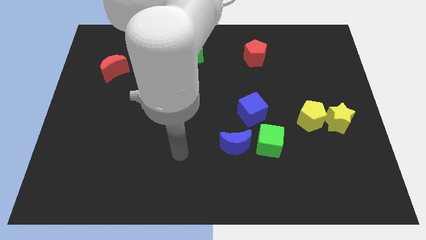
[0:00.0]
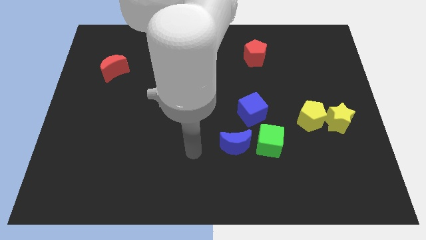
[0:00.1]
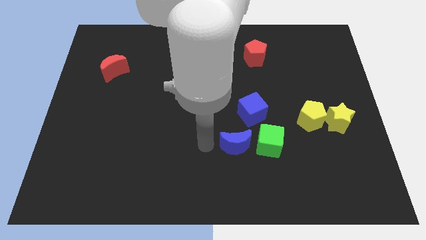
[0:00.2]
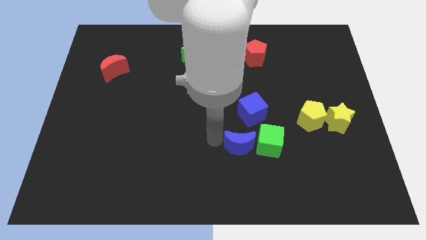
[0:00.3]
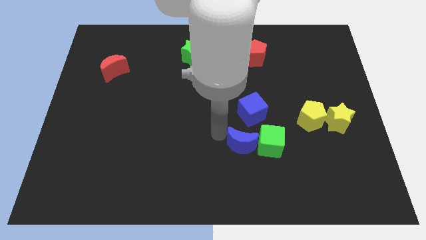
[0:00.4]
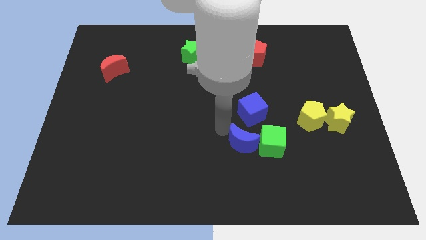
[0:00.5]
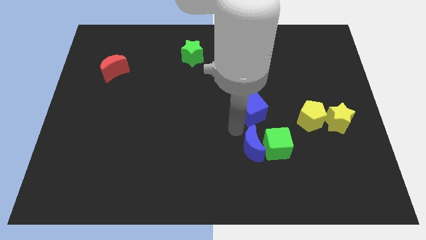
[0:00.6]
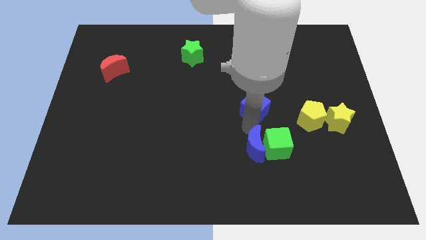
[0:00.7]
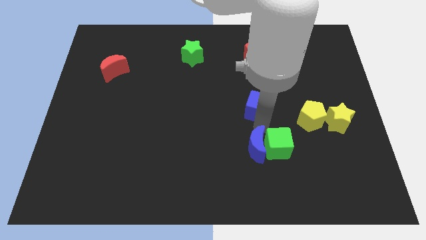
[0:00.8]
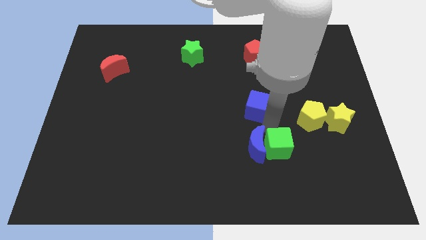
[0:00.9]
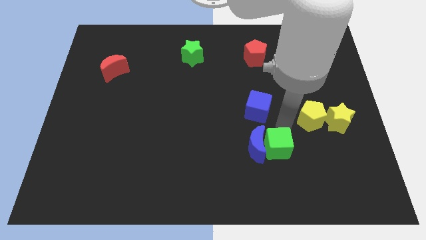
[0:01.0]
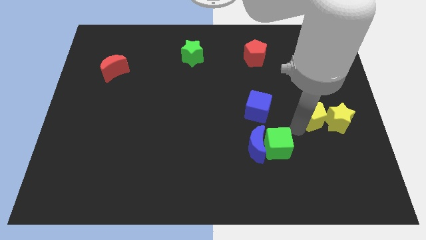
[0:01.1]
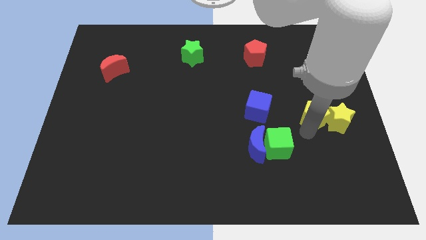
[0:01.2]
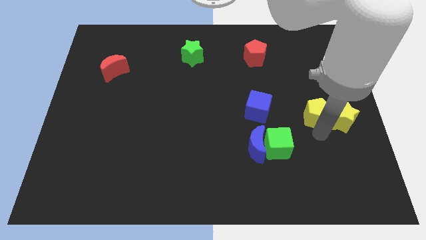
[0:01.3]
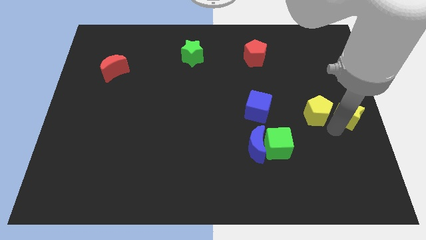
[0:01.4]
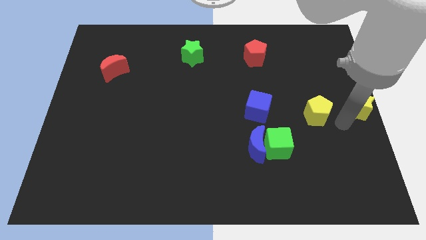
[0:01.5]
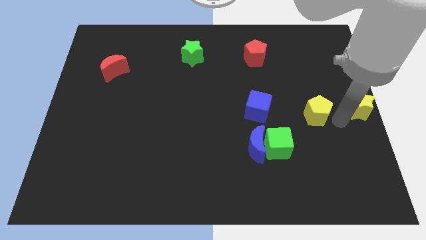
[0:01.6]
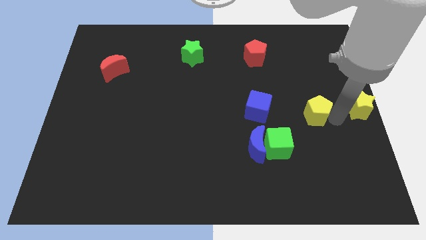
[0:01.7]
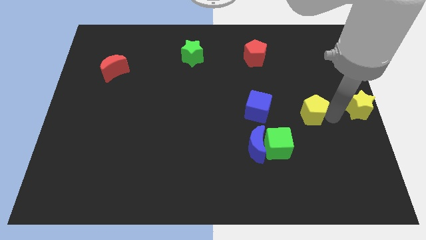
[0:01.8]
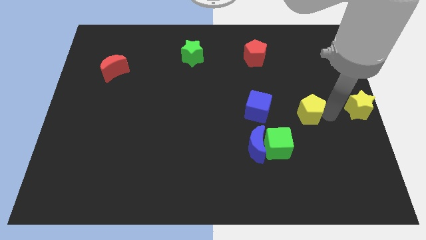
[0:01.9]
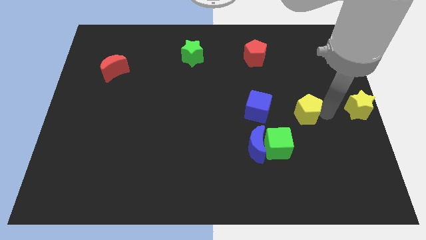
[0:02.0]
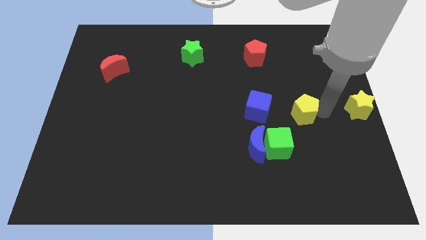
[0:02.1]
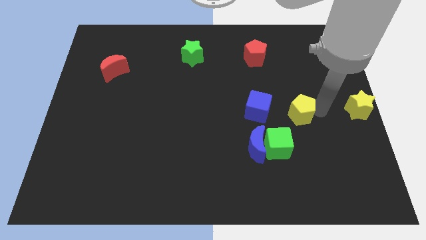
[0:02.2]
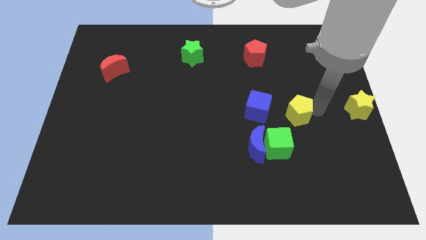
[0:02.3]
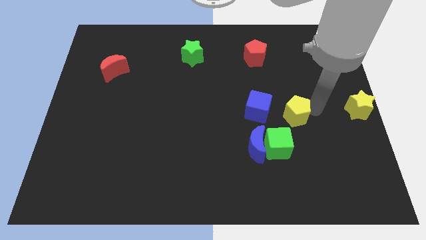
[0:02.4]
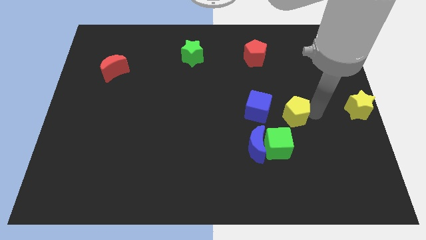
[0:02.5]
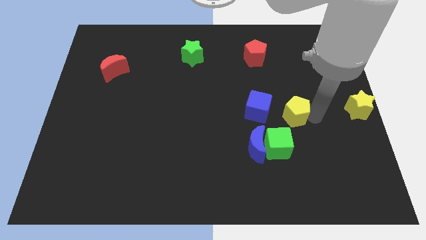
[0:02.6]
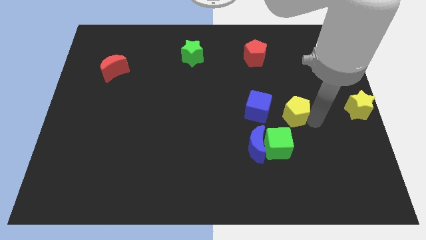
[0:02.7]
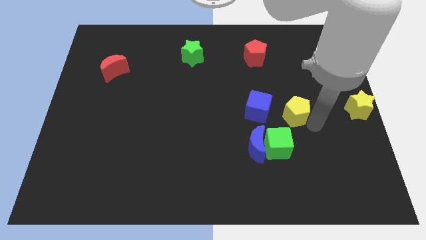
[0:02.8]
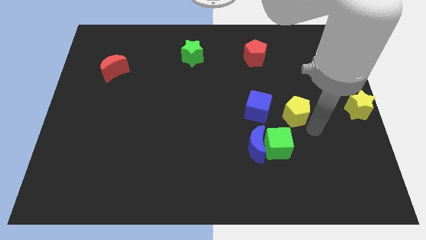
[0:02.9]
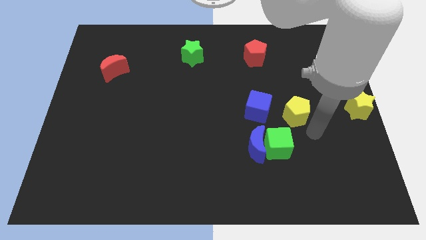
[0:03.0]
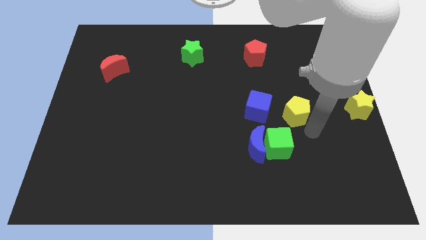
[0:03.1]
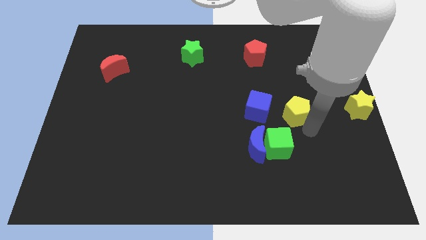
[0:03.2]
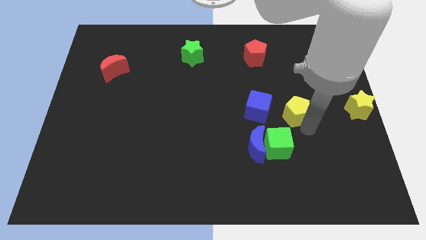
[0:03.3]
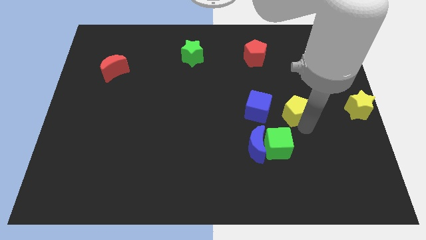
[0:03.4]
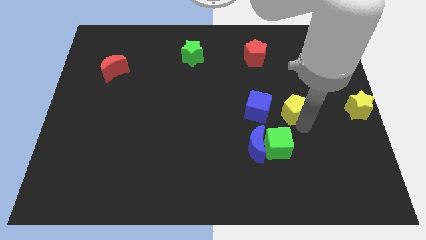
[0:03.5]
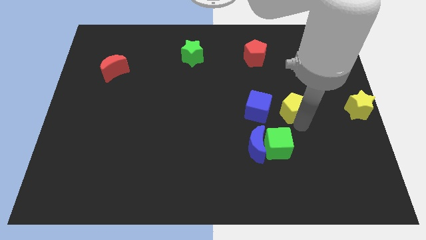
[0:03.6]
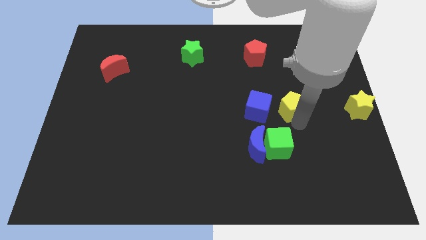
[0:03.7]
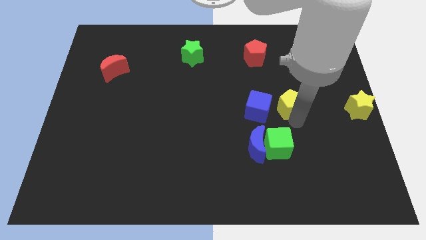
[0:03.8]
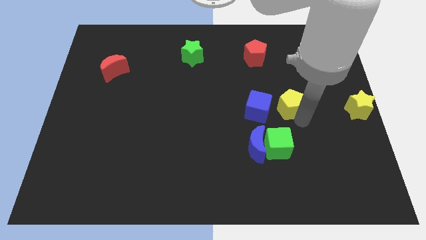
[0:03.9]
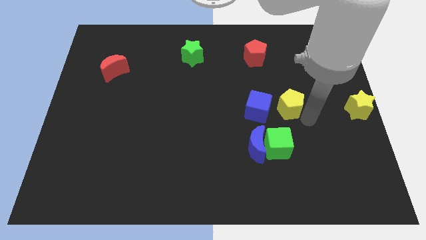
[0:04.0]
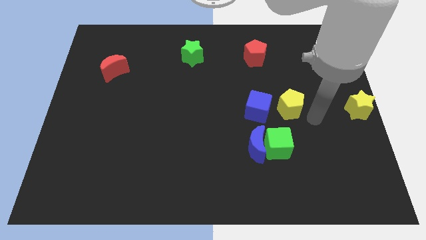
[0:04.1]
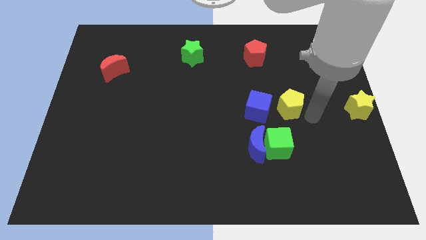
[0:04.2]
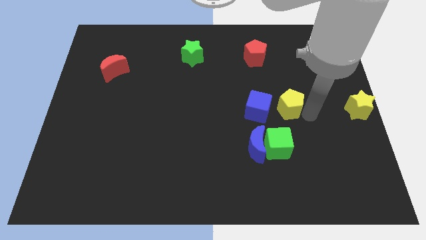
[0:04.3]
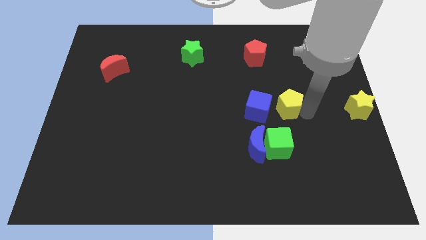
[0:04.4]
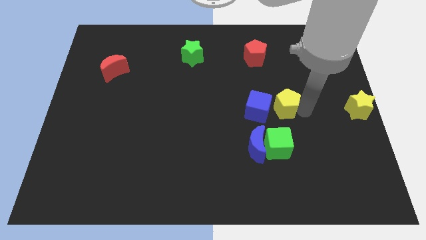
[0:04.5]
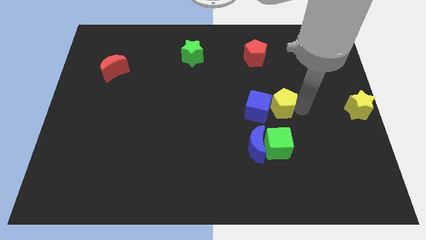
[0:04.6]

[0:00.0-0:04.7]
move the yellow pentagon diagonally upwards and left a little bit

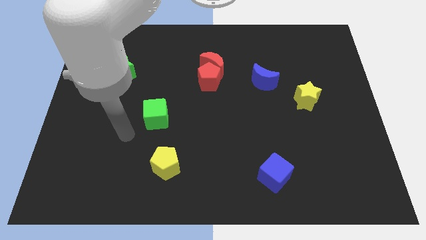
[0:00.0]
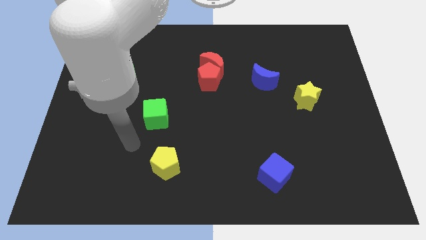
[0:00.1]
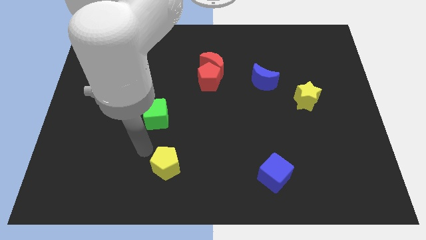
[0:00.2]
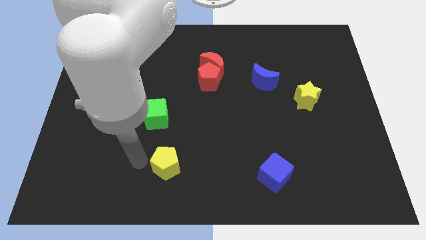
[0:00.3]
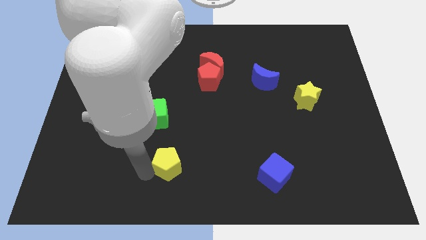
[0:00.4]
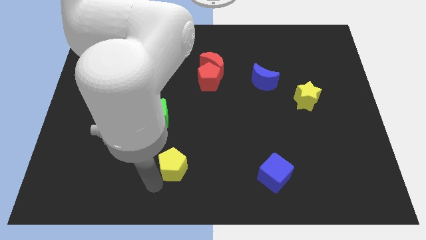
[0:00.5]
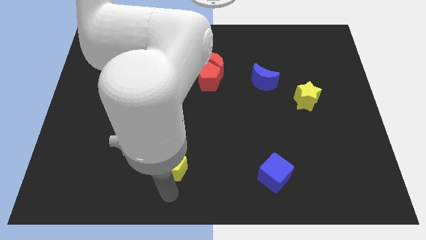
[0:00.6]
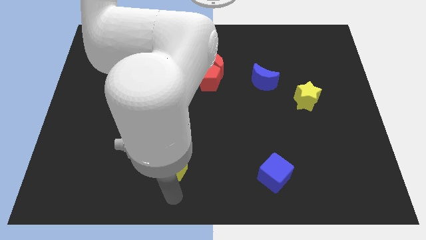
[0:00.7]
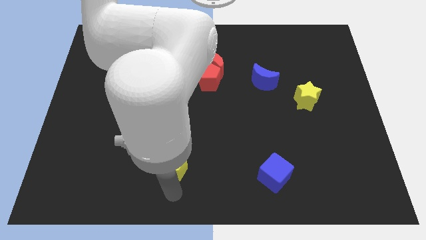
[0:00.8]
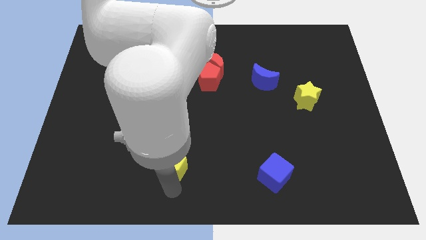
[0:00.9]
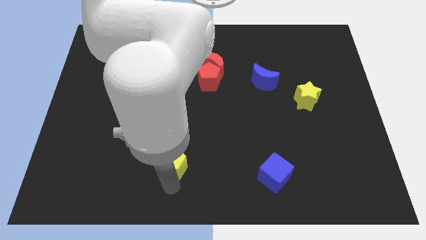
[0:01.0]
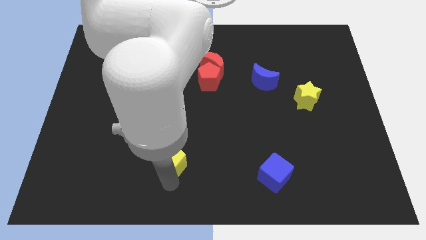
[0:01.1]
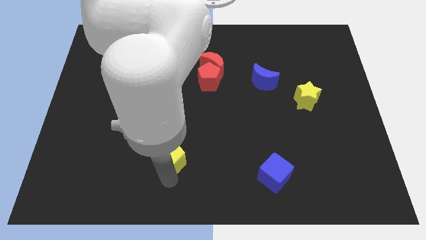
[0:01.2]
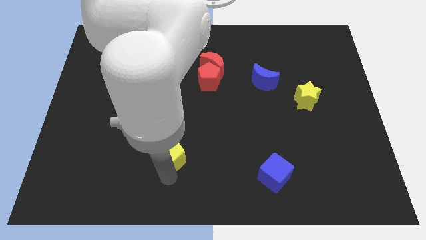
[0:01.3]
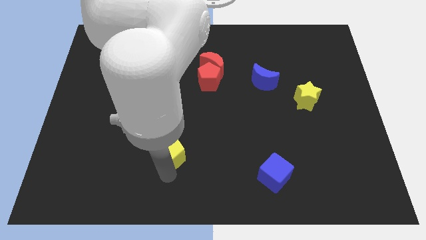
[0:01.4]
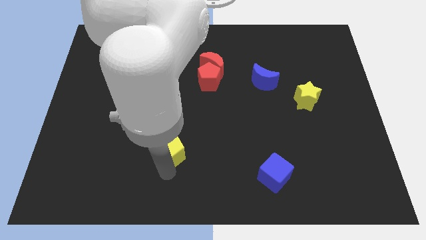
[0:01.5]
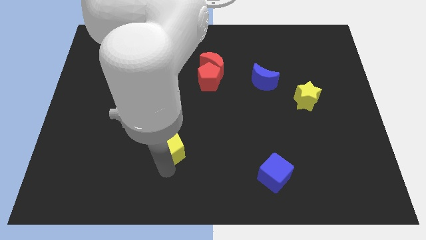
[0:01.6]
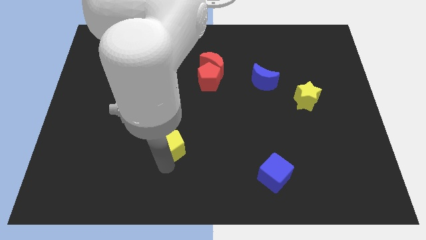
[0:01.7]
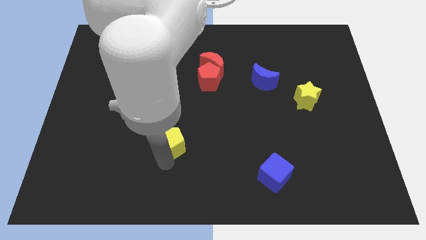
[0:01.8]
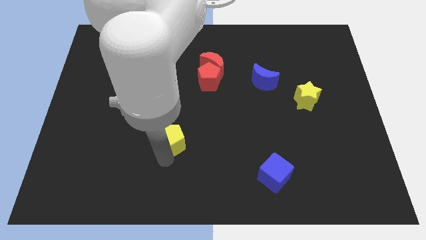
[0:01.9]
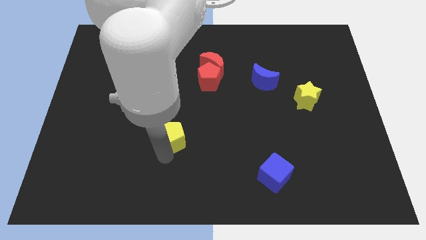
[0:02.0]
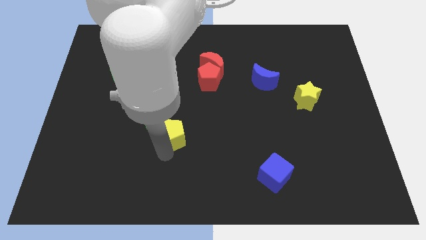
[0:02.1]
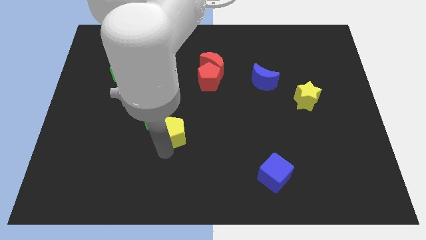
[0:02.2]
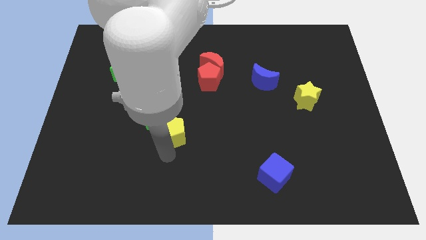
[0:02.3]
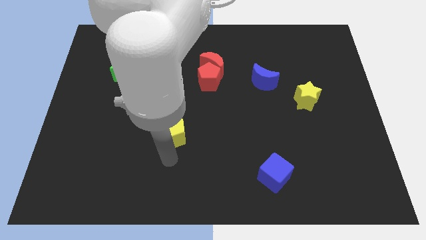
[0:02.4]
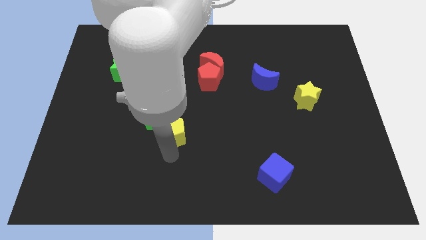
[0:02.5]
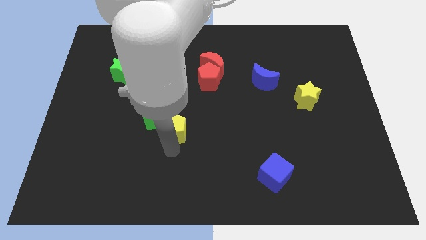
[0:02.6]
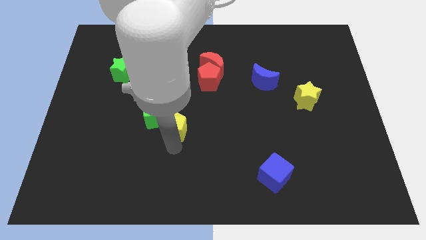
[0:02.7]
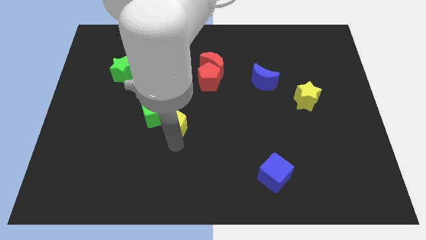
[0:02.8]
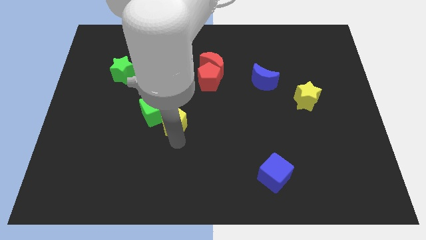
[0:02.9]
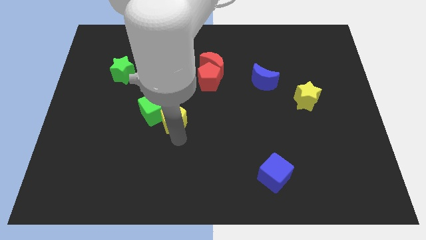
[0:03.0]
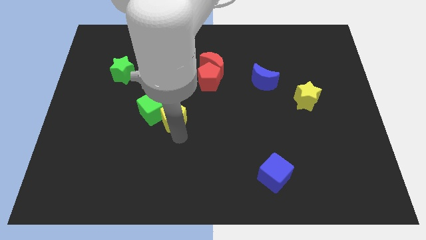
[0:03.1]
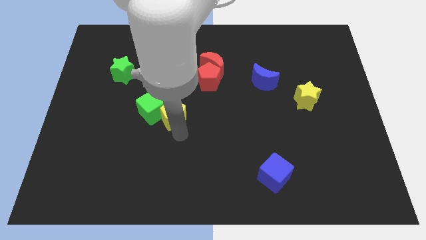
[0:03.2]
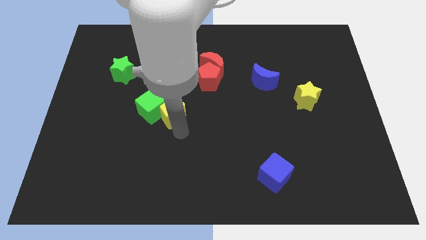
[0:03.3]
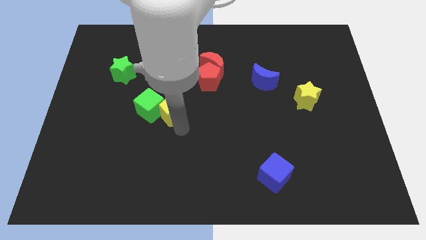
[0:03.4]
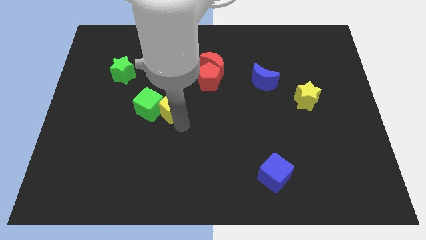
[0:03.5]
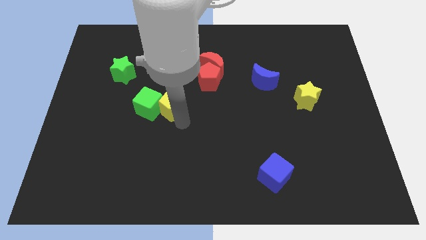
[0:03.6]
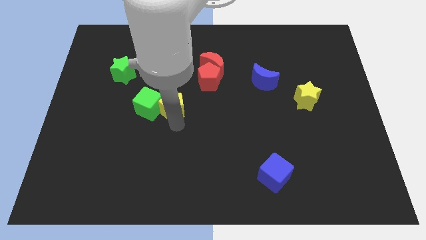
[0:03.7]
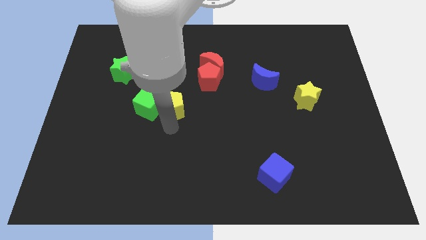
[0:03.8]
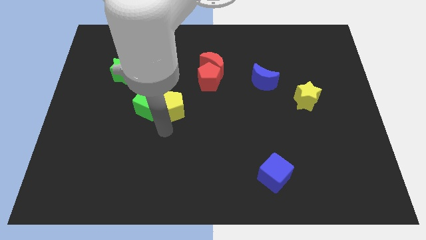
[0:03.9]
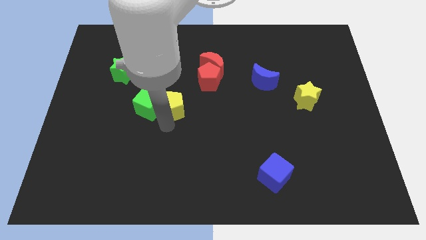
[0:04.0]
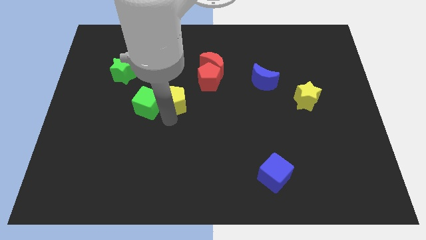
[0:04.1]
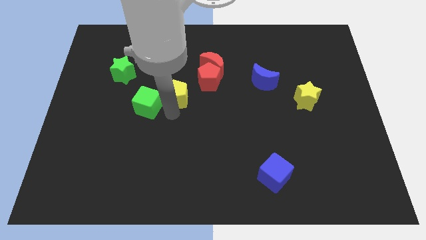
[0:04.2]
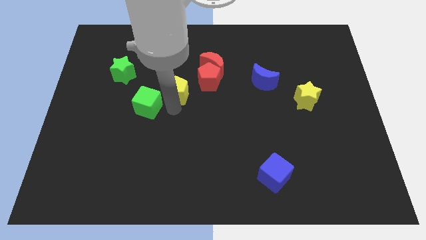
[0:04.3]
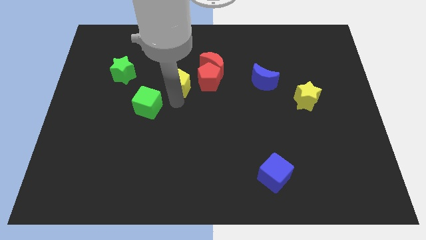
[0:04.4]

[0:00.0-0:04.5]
move the yellow pentagon upwards
